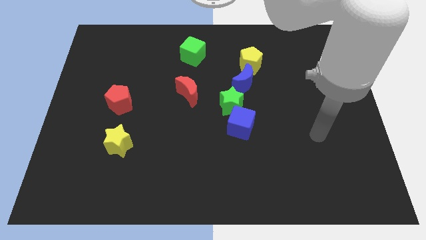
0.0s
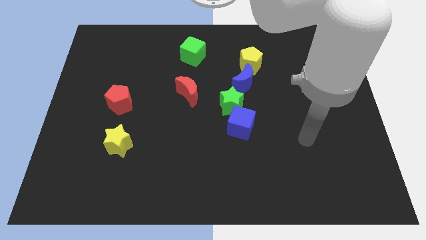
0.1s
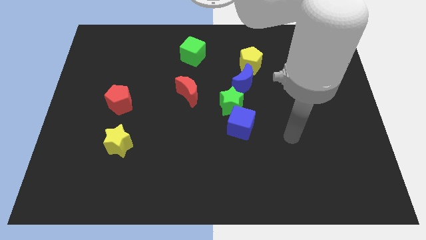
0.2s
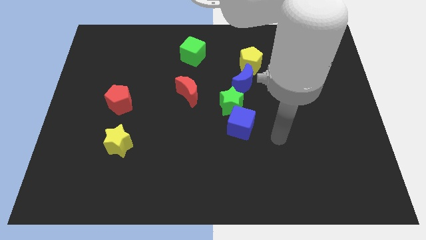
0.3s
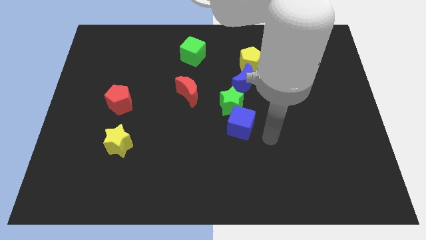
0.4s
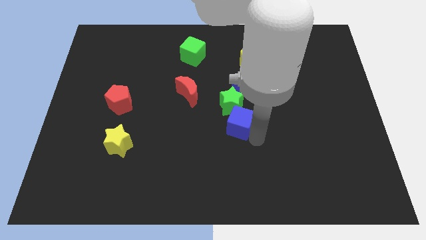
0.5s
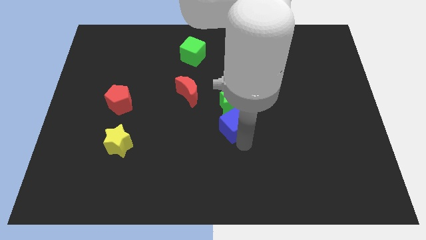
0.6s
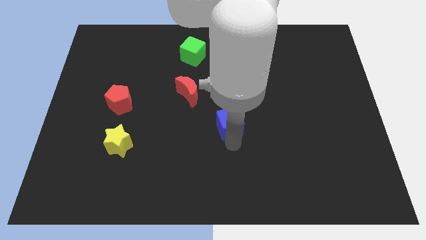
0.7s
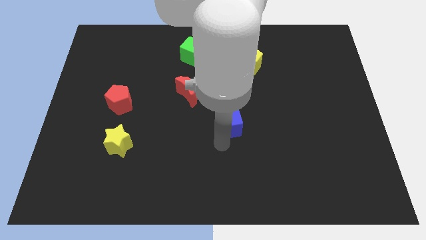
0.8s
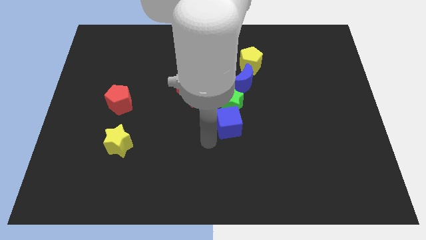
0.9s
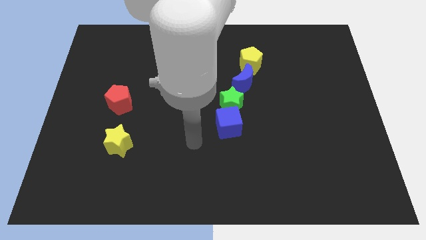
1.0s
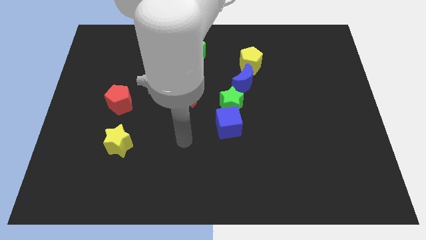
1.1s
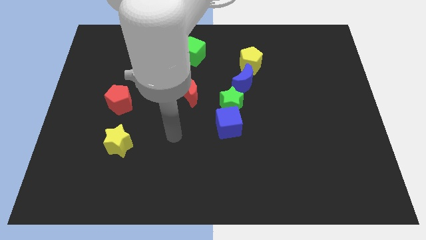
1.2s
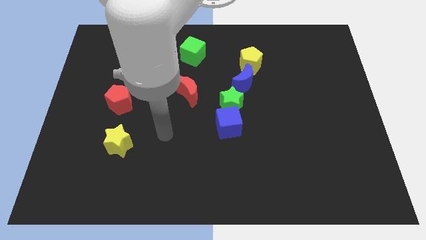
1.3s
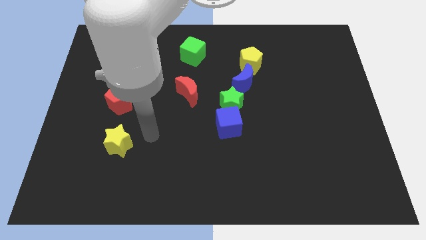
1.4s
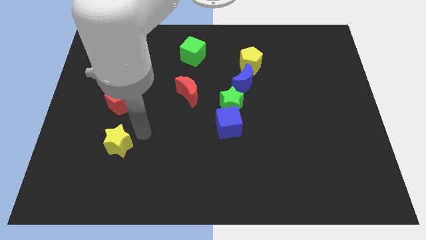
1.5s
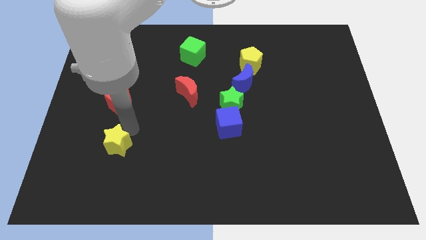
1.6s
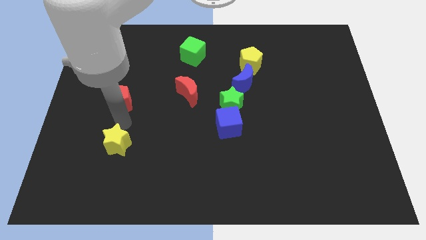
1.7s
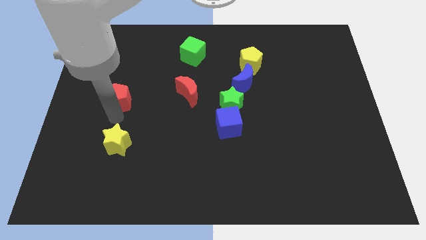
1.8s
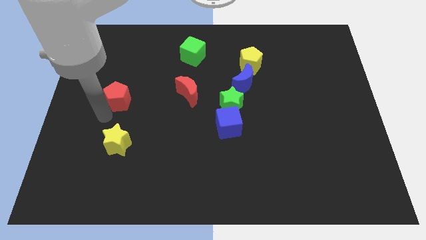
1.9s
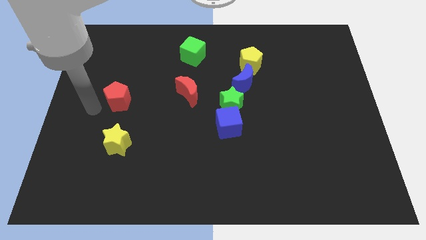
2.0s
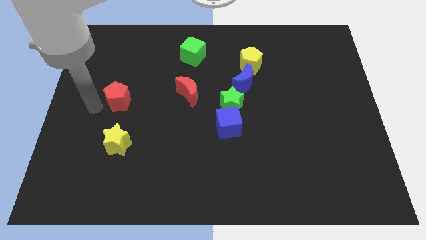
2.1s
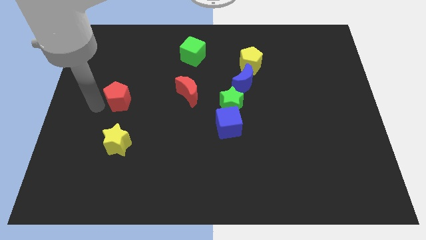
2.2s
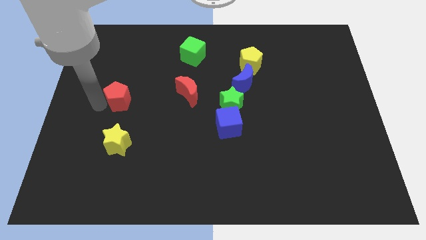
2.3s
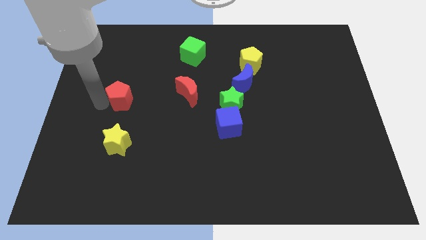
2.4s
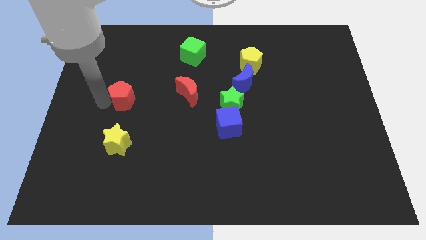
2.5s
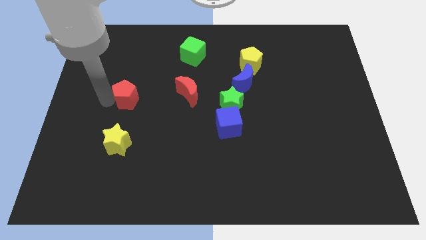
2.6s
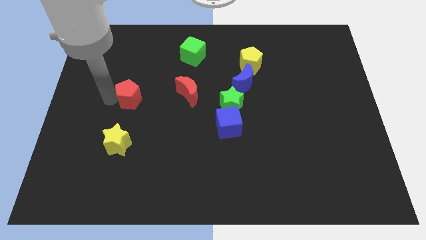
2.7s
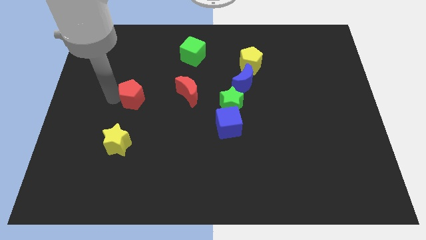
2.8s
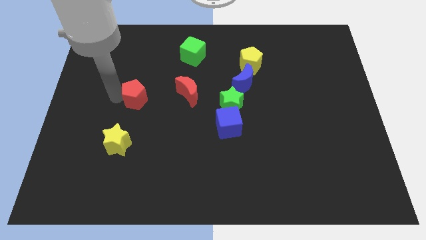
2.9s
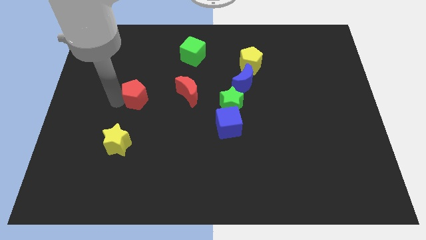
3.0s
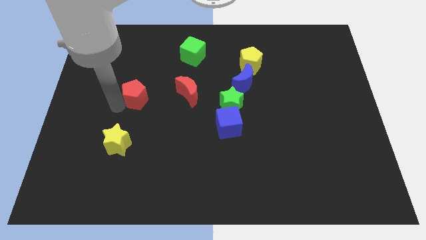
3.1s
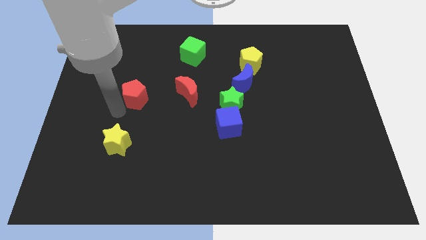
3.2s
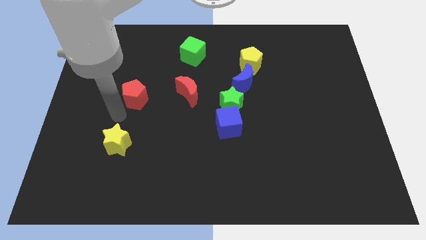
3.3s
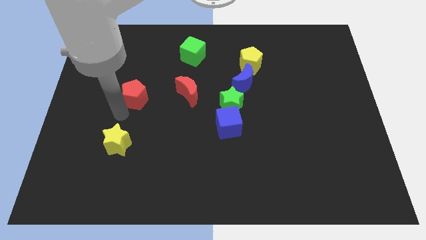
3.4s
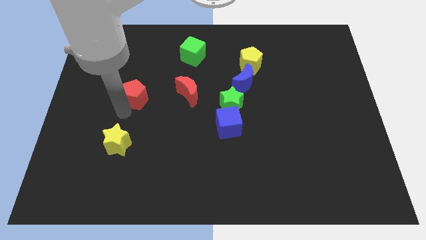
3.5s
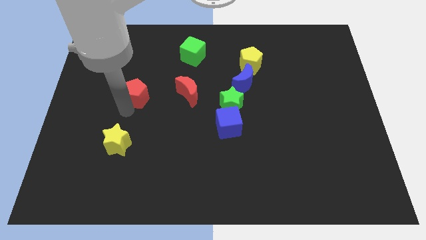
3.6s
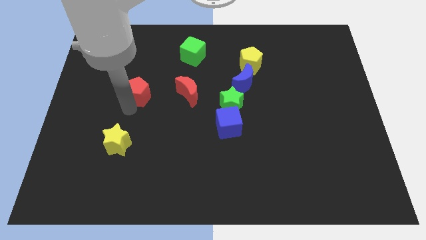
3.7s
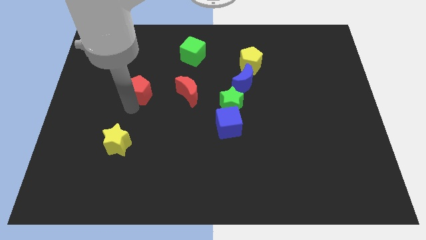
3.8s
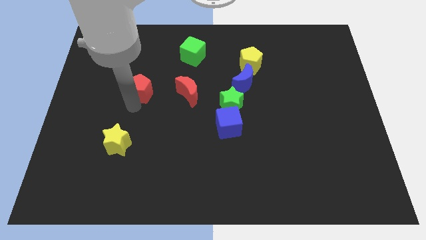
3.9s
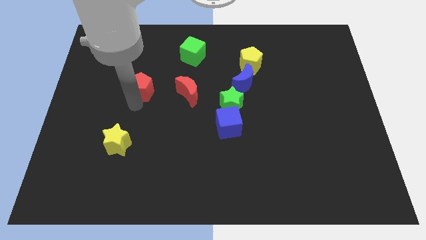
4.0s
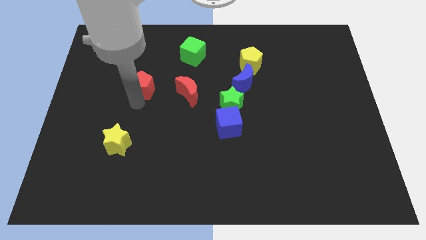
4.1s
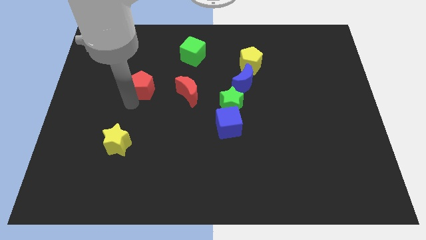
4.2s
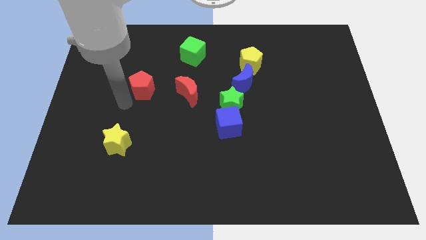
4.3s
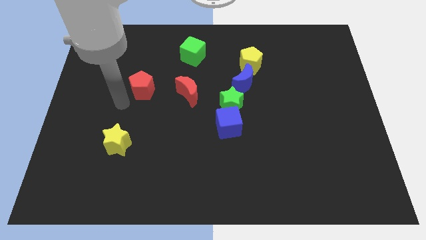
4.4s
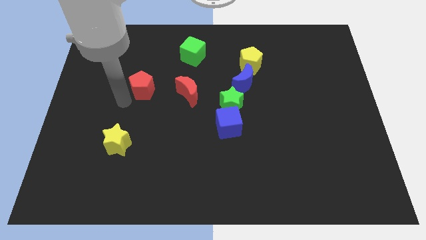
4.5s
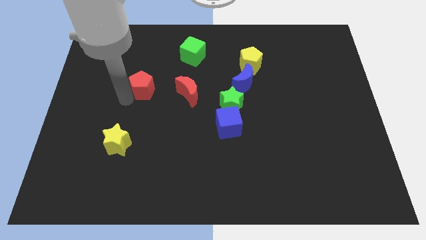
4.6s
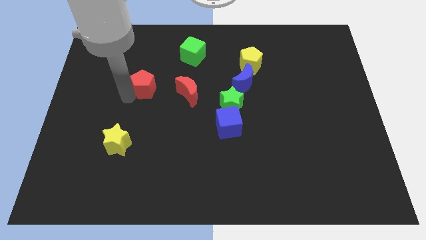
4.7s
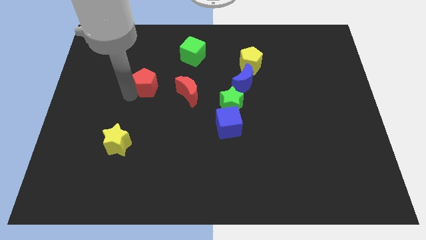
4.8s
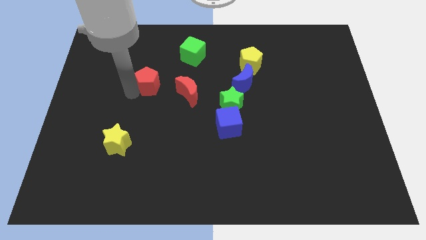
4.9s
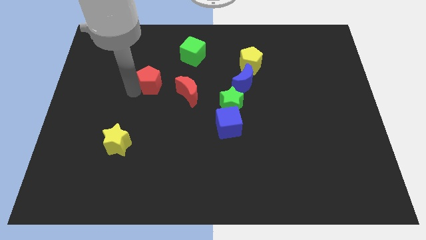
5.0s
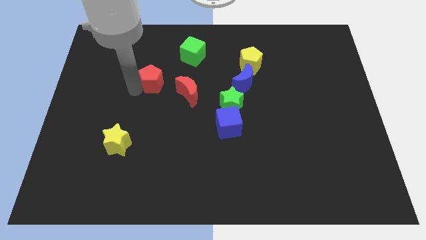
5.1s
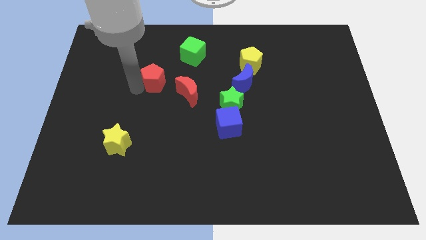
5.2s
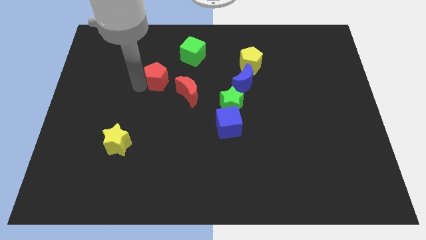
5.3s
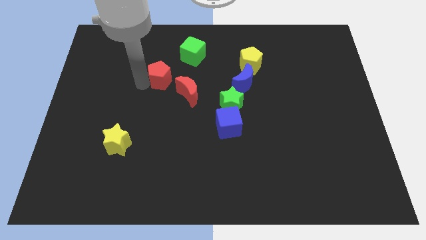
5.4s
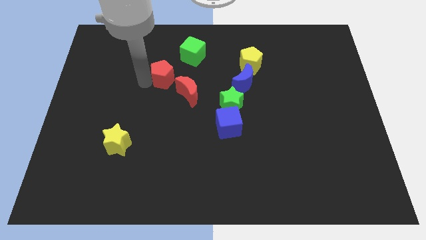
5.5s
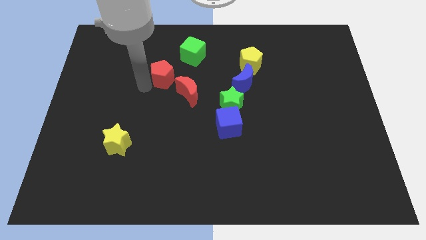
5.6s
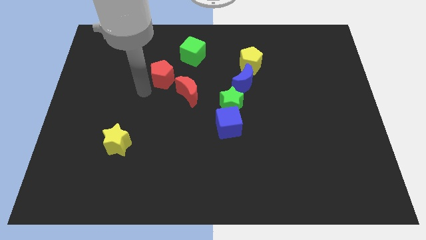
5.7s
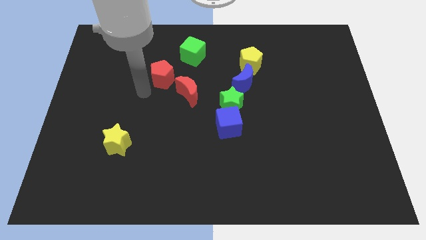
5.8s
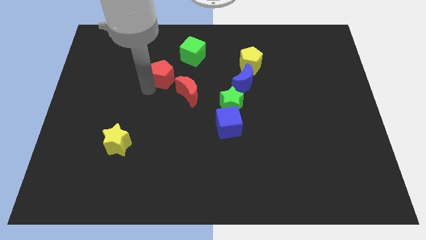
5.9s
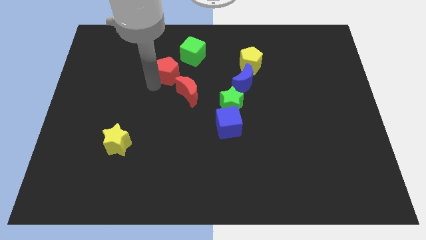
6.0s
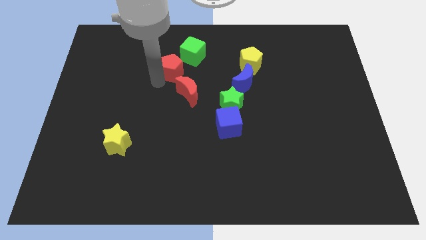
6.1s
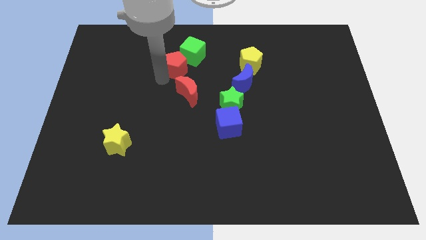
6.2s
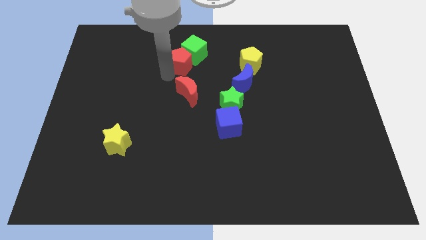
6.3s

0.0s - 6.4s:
push the red pentagon to the green cube

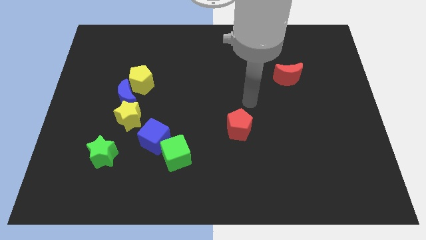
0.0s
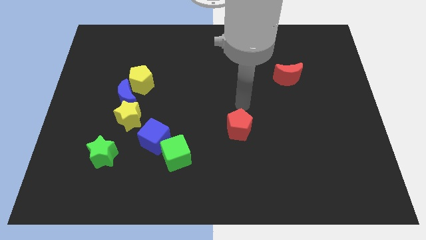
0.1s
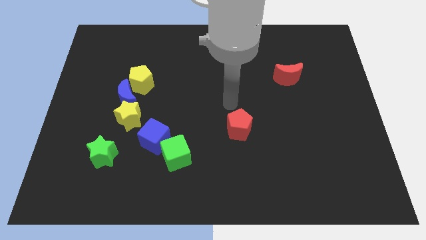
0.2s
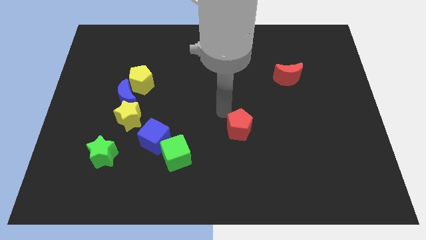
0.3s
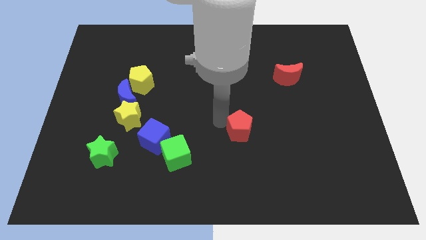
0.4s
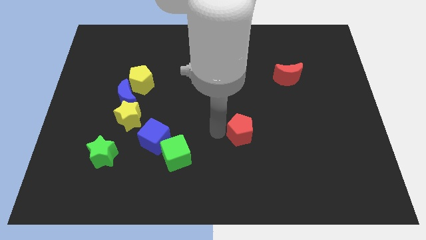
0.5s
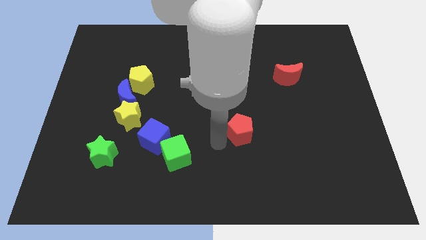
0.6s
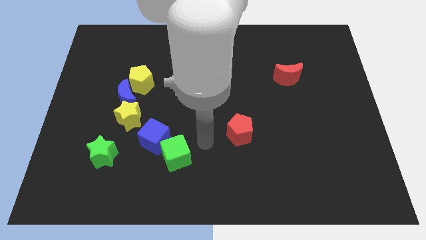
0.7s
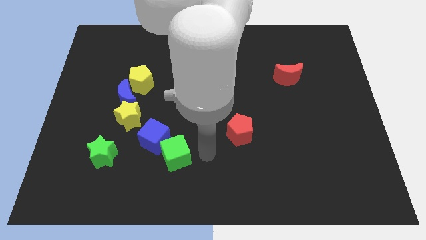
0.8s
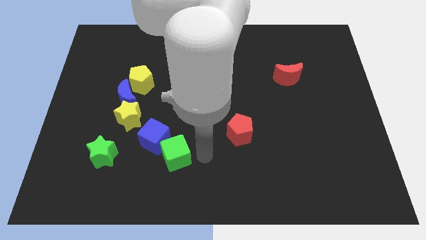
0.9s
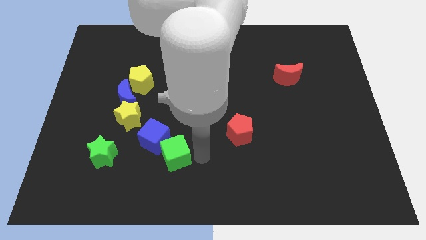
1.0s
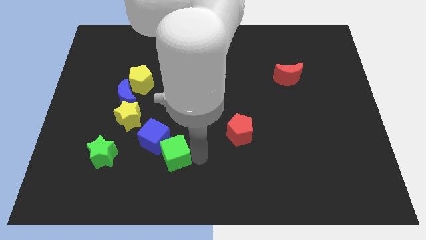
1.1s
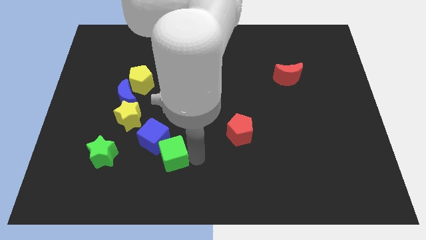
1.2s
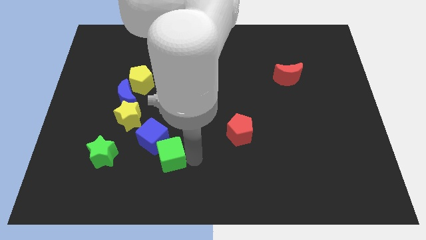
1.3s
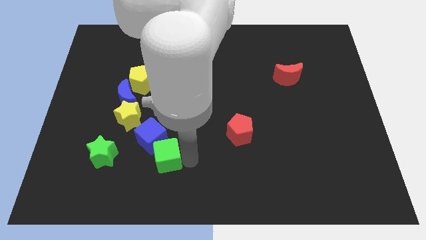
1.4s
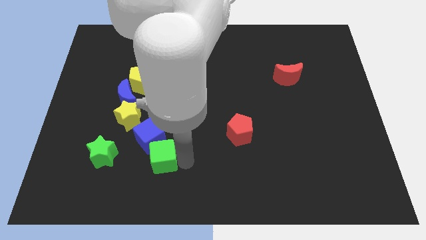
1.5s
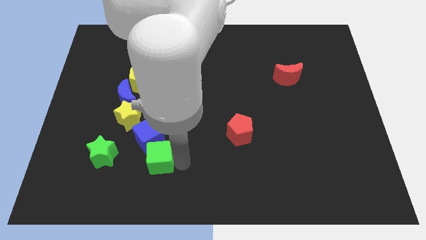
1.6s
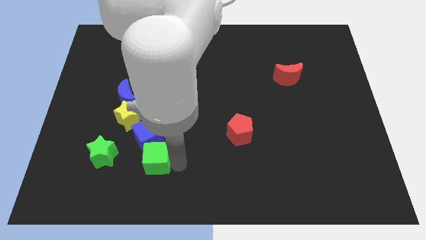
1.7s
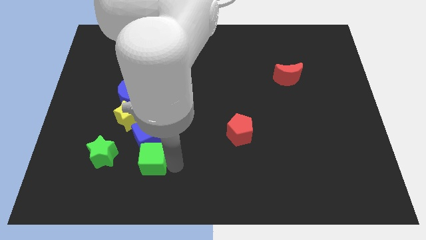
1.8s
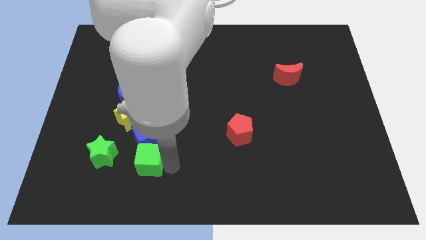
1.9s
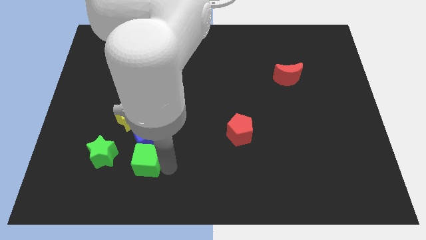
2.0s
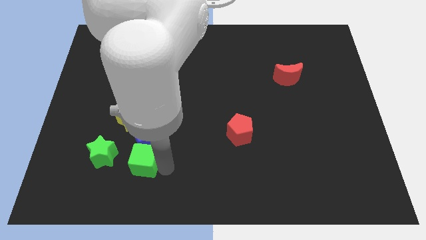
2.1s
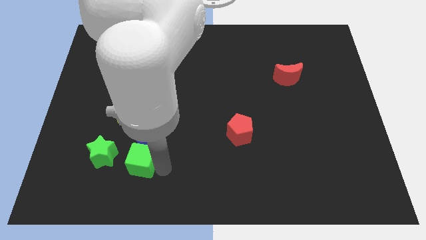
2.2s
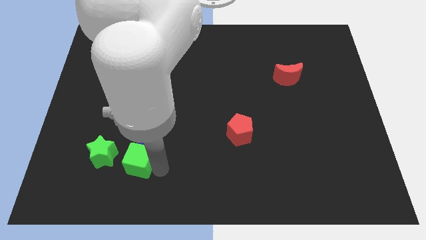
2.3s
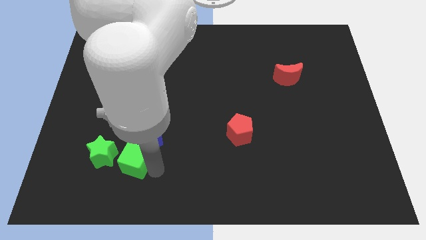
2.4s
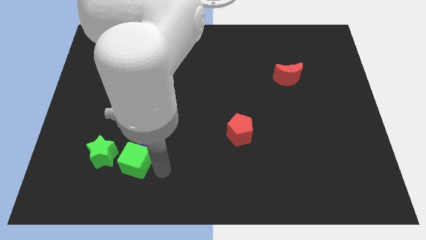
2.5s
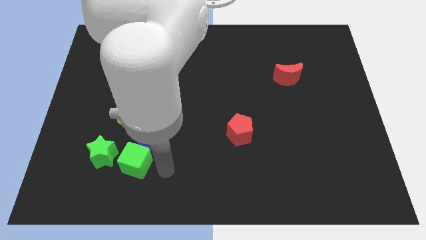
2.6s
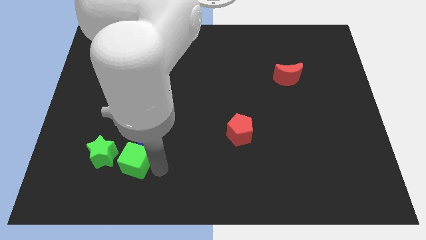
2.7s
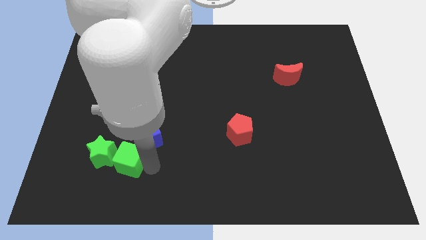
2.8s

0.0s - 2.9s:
put the green cube close to the green star
